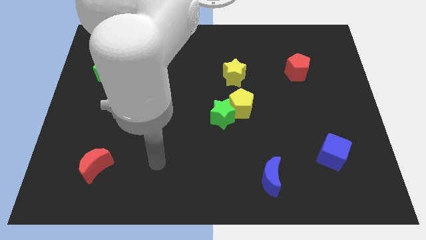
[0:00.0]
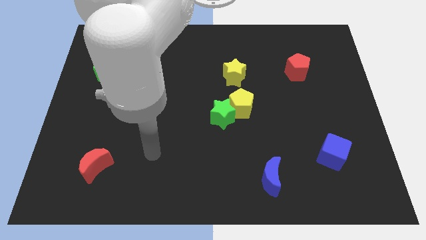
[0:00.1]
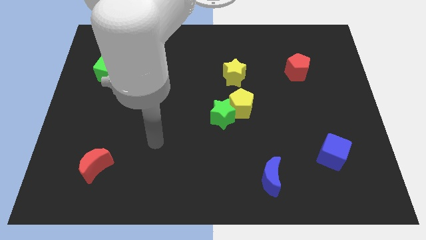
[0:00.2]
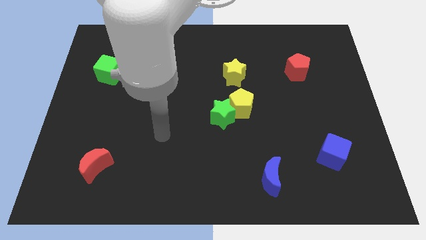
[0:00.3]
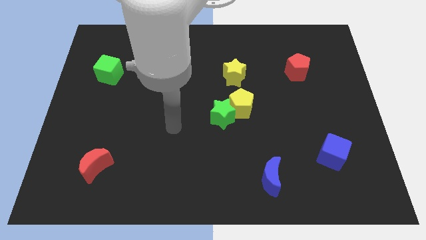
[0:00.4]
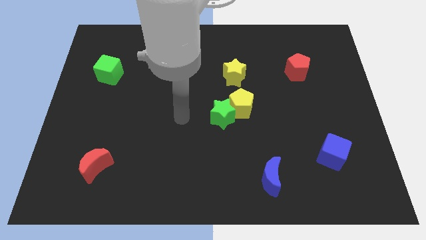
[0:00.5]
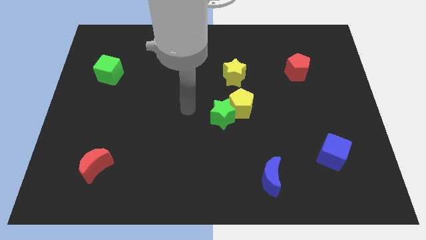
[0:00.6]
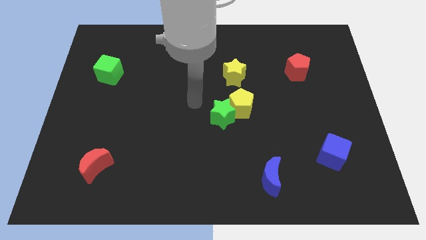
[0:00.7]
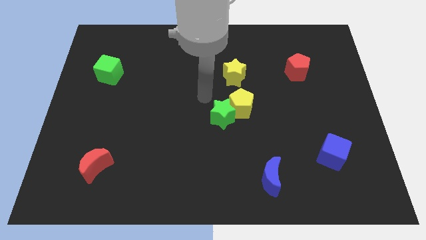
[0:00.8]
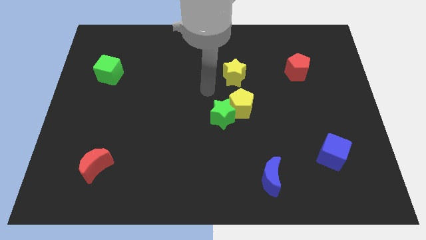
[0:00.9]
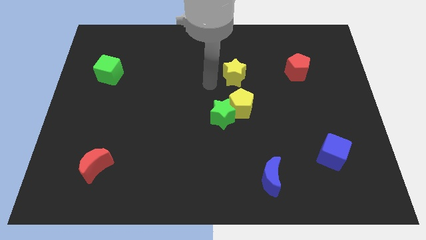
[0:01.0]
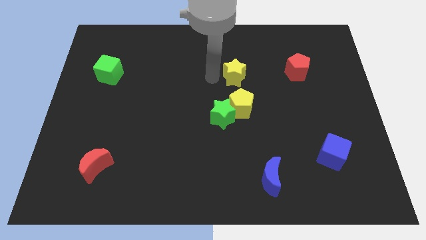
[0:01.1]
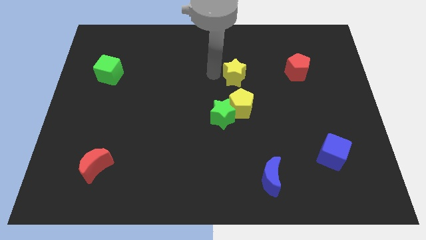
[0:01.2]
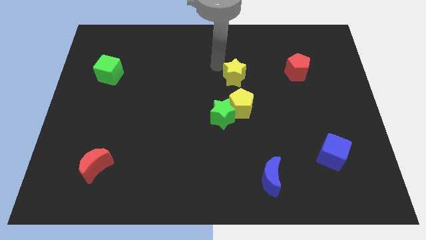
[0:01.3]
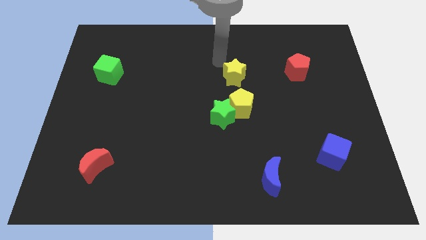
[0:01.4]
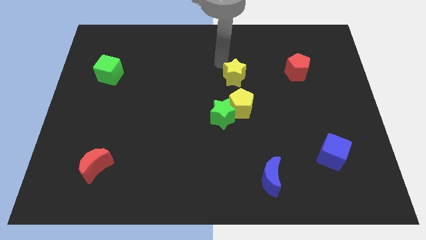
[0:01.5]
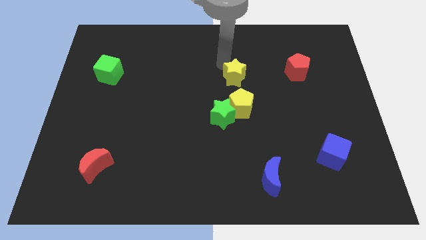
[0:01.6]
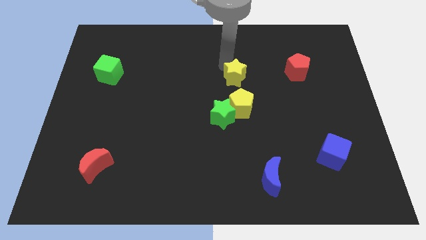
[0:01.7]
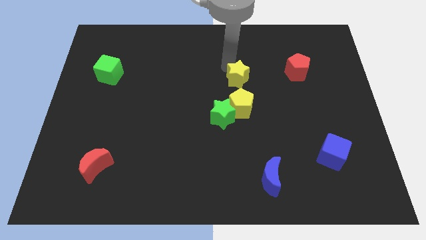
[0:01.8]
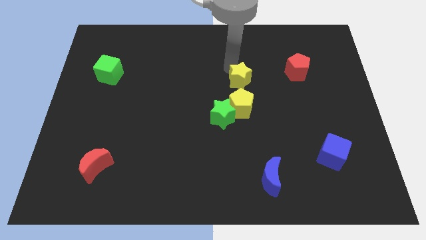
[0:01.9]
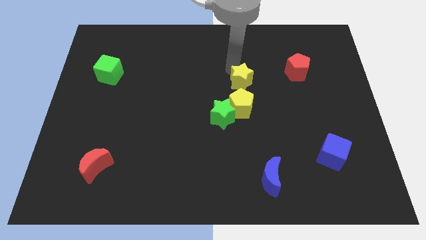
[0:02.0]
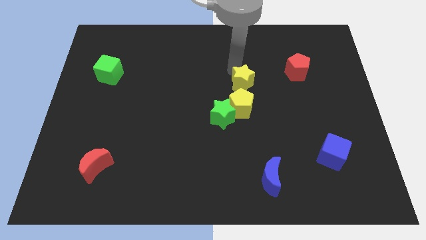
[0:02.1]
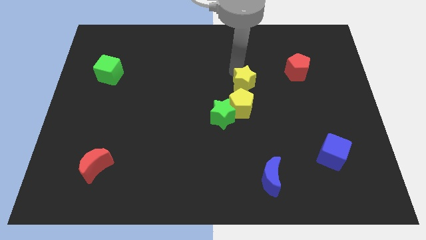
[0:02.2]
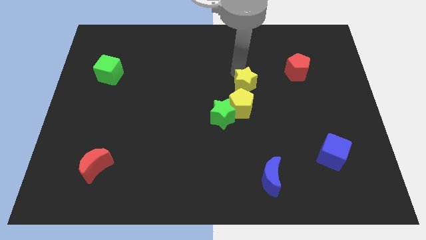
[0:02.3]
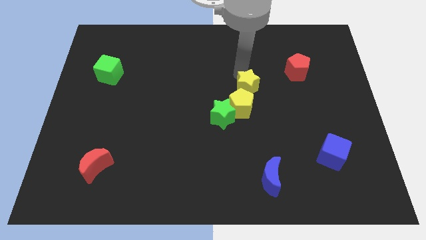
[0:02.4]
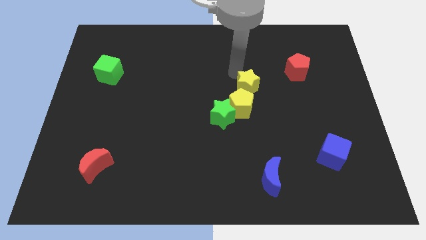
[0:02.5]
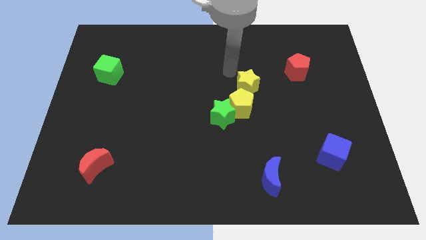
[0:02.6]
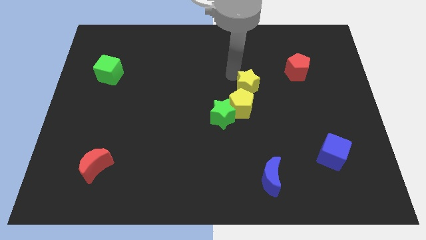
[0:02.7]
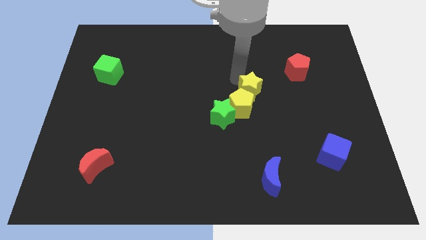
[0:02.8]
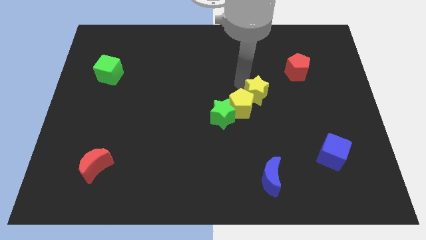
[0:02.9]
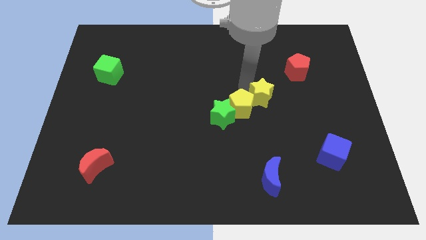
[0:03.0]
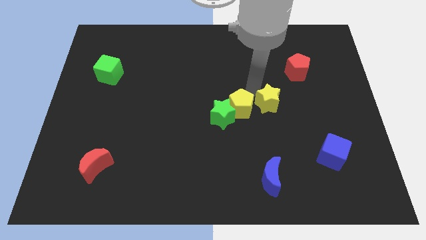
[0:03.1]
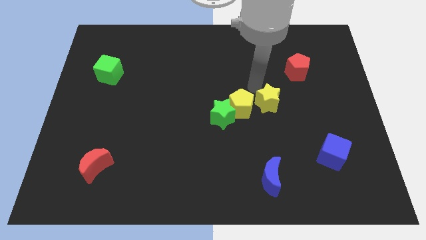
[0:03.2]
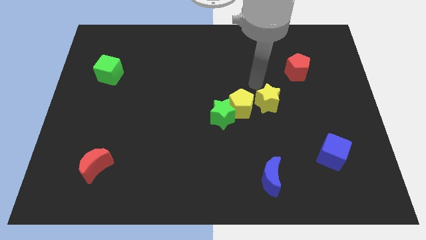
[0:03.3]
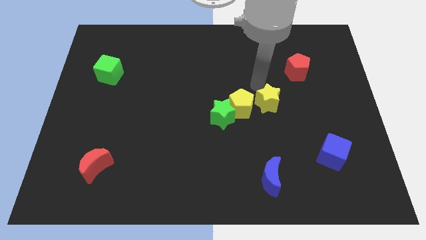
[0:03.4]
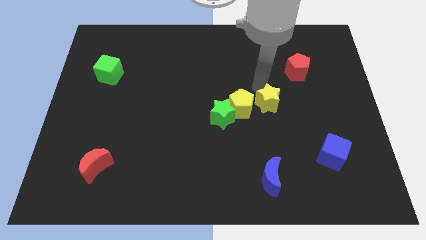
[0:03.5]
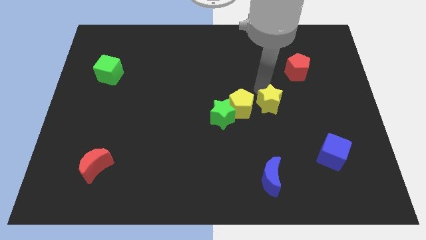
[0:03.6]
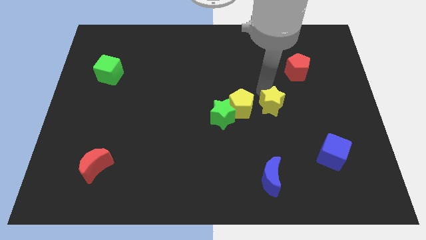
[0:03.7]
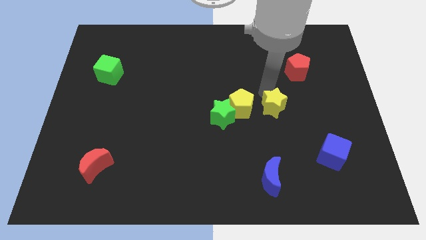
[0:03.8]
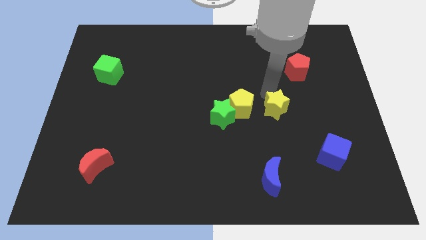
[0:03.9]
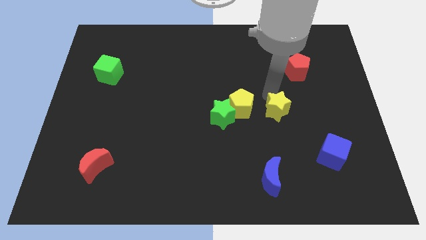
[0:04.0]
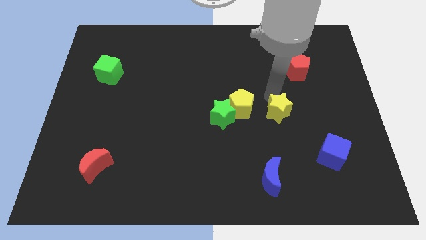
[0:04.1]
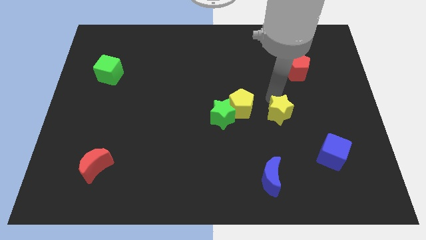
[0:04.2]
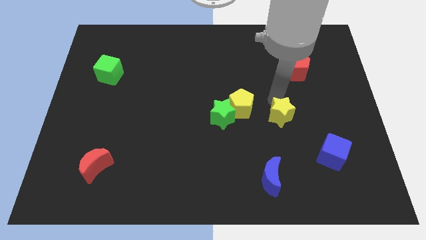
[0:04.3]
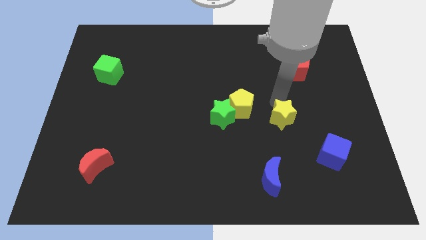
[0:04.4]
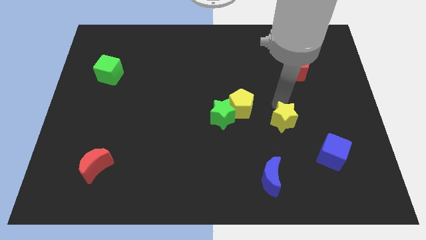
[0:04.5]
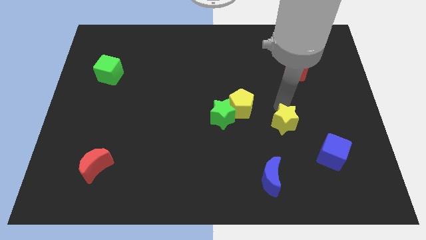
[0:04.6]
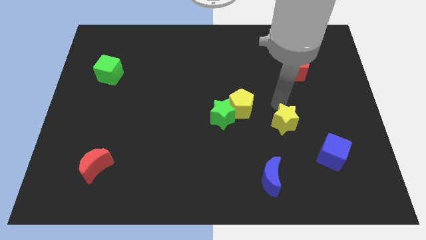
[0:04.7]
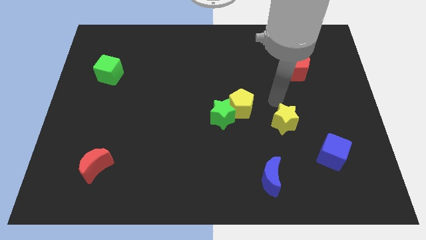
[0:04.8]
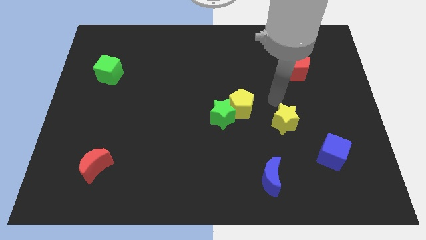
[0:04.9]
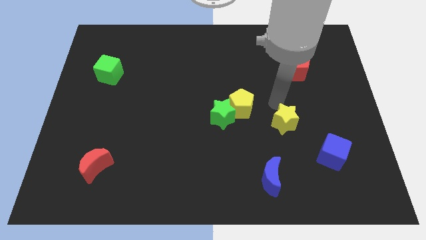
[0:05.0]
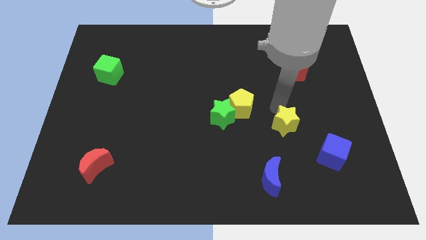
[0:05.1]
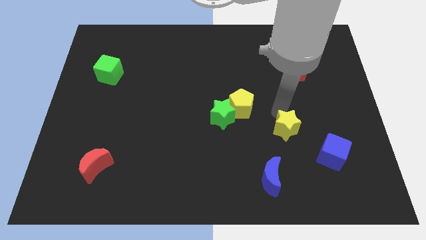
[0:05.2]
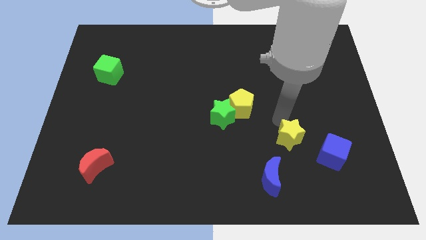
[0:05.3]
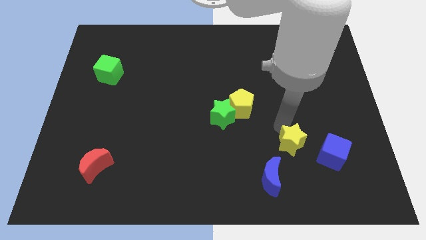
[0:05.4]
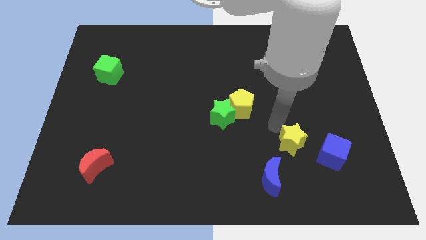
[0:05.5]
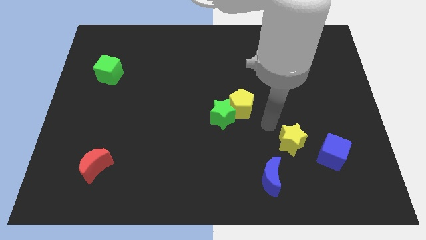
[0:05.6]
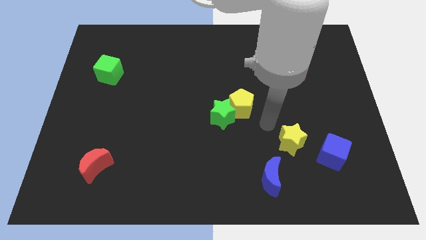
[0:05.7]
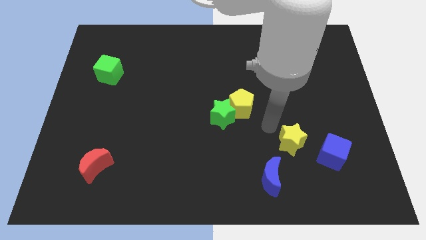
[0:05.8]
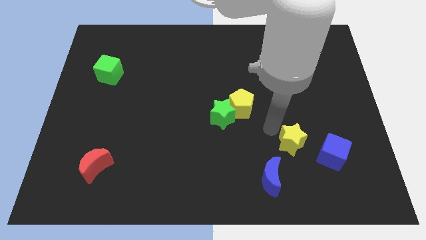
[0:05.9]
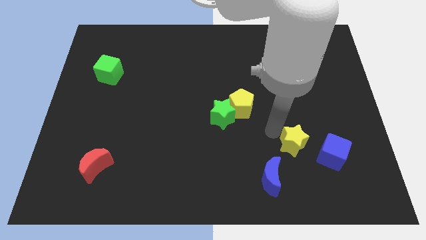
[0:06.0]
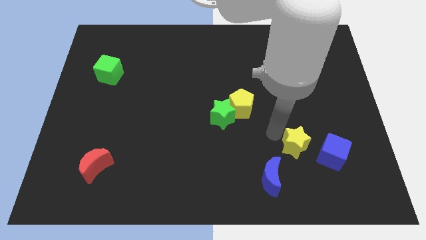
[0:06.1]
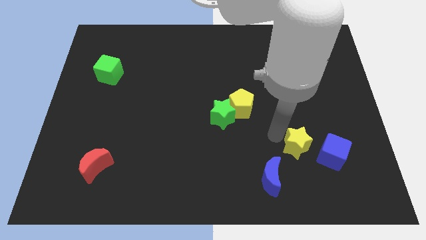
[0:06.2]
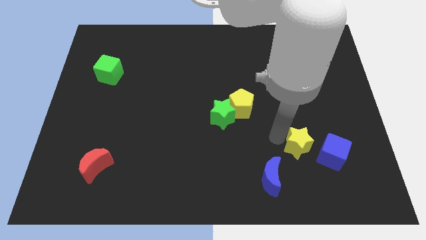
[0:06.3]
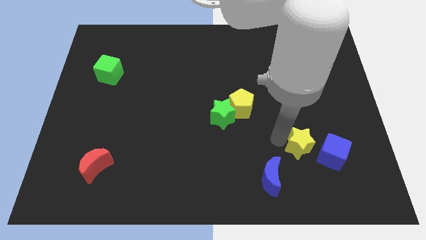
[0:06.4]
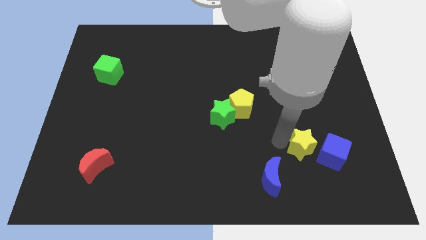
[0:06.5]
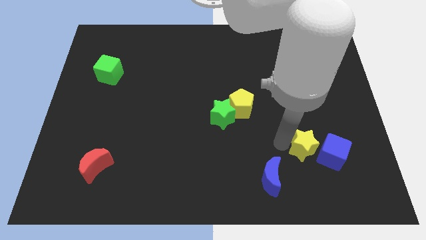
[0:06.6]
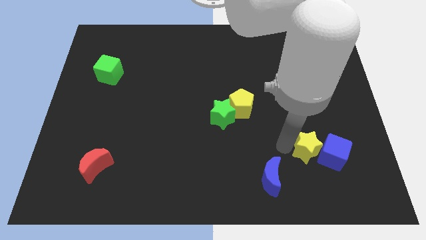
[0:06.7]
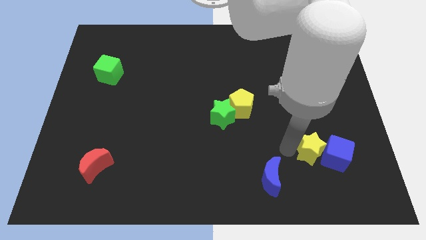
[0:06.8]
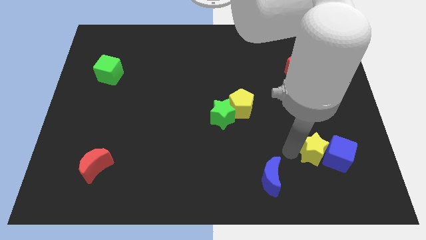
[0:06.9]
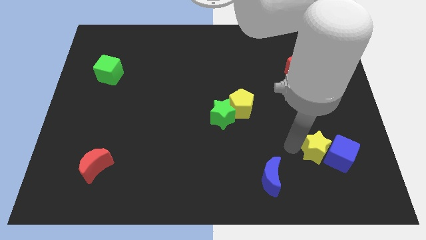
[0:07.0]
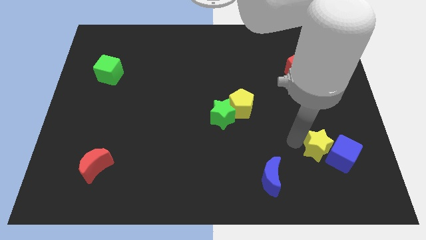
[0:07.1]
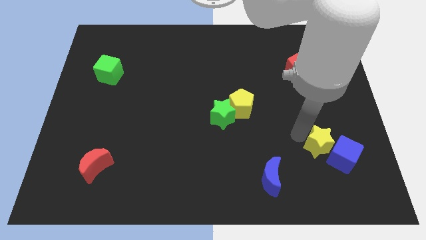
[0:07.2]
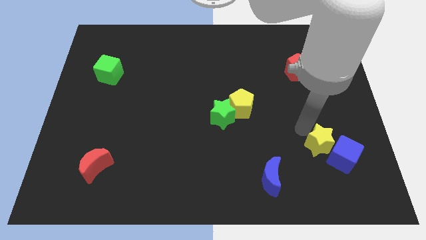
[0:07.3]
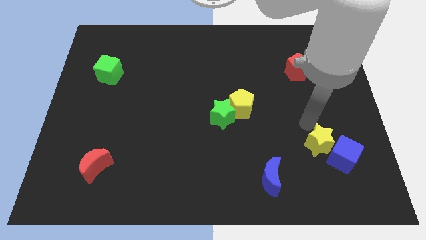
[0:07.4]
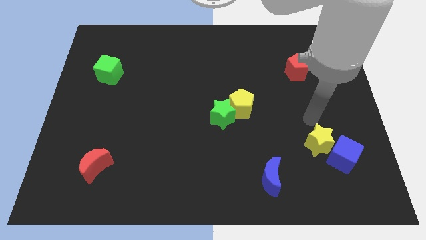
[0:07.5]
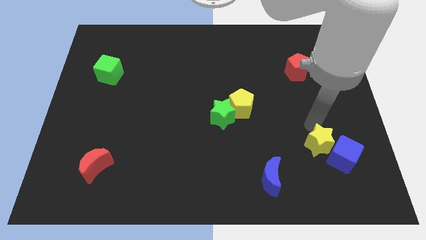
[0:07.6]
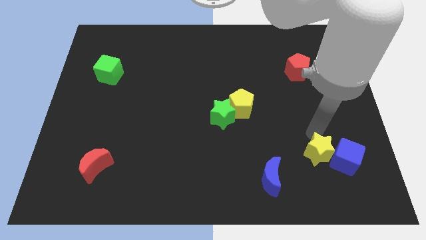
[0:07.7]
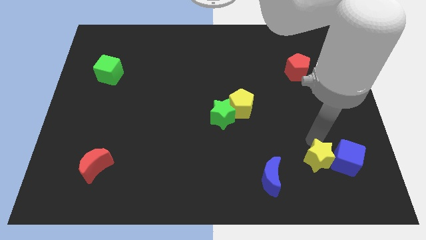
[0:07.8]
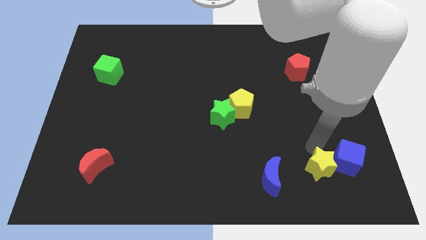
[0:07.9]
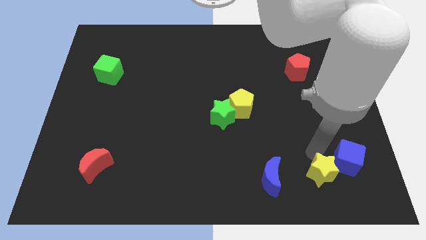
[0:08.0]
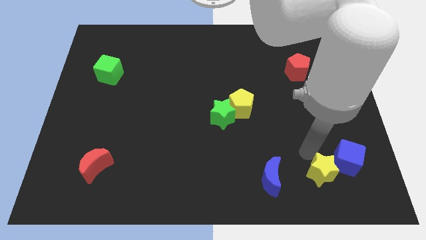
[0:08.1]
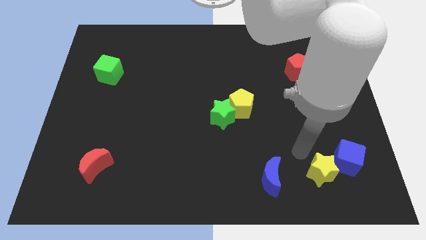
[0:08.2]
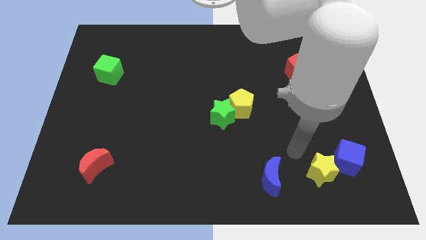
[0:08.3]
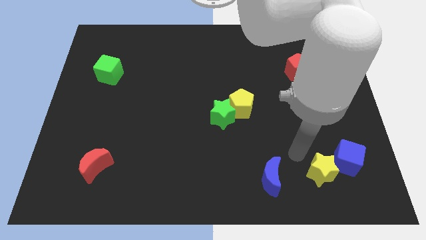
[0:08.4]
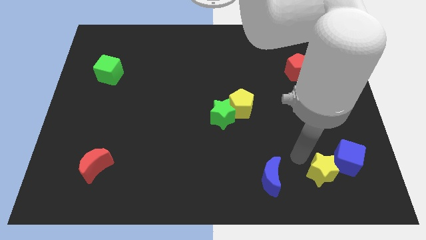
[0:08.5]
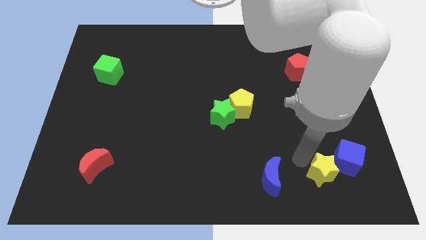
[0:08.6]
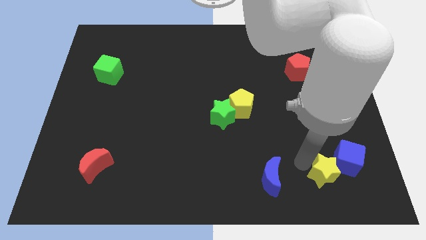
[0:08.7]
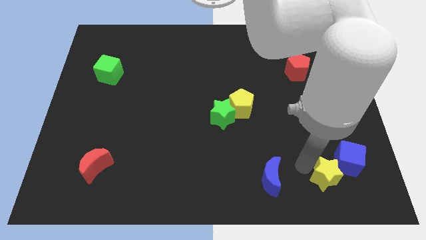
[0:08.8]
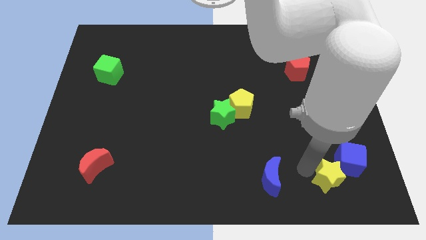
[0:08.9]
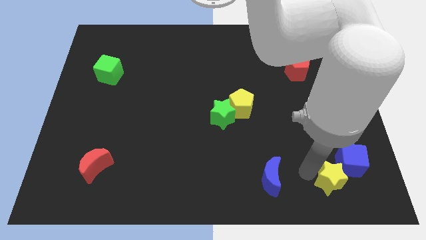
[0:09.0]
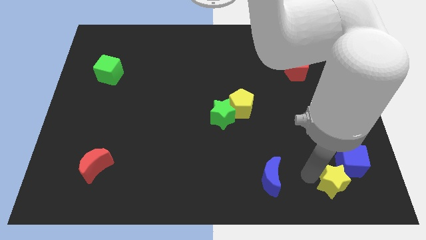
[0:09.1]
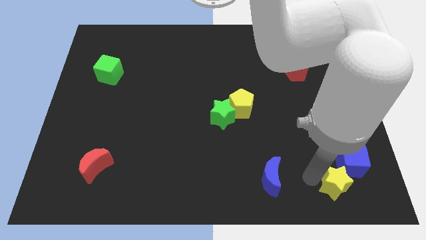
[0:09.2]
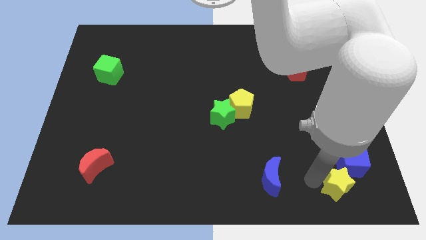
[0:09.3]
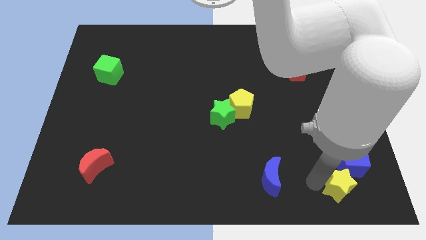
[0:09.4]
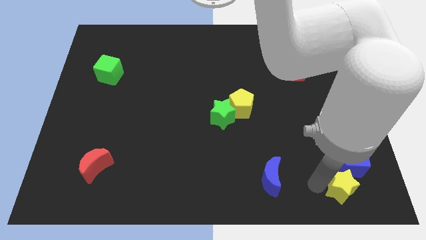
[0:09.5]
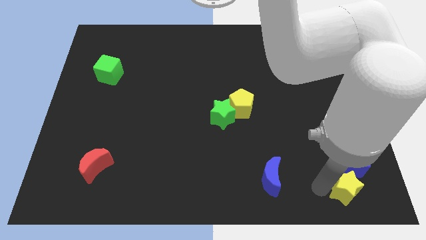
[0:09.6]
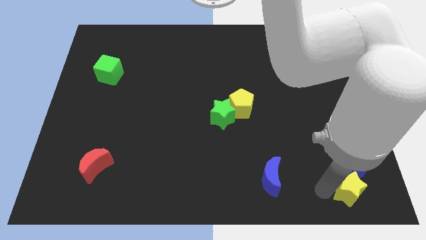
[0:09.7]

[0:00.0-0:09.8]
move the yellow star to the bottom right
